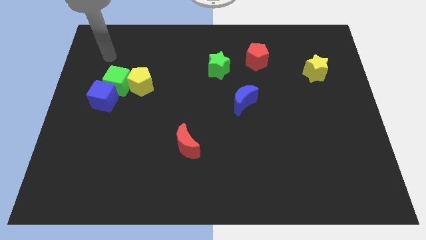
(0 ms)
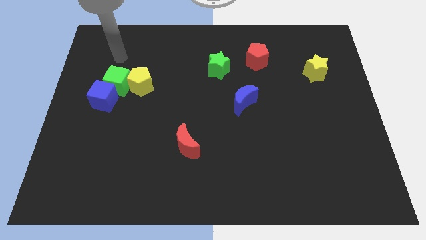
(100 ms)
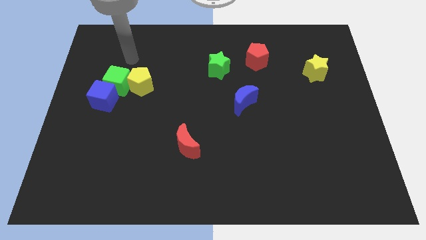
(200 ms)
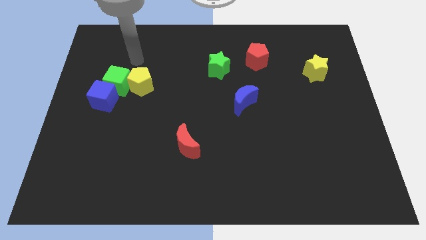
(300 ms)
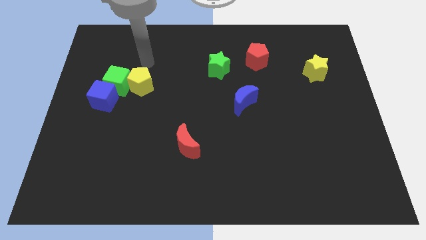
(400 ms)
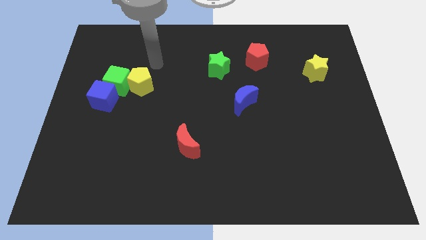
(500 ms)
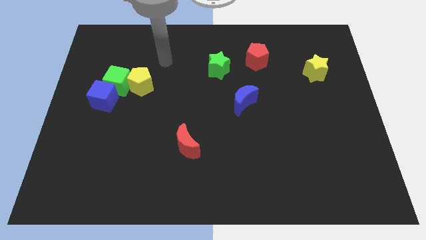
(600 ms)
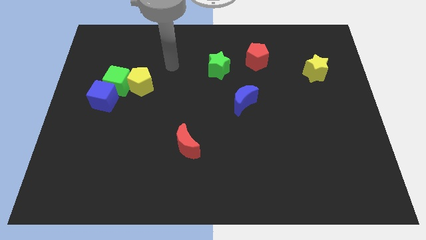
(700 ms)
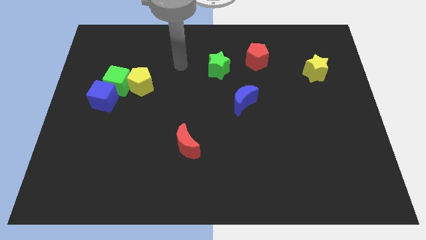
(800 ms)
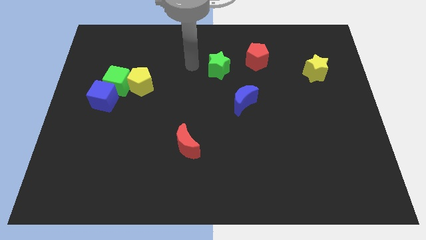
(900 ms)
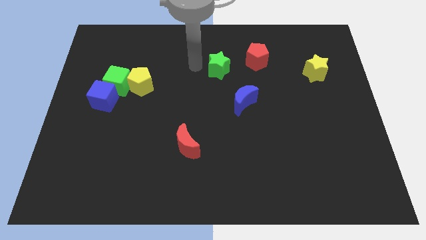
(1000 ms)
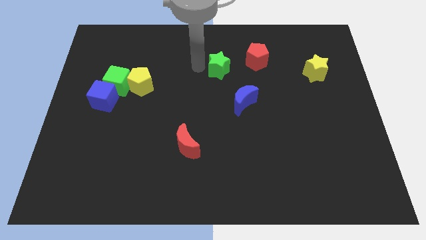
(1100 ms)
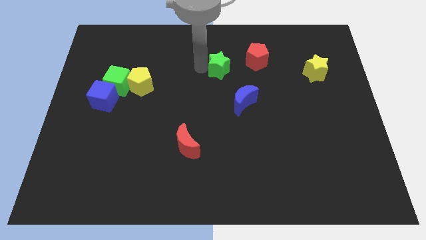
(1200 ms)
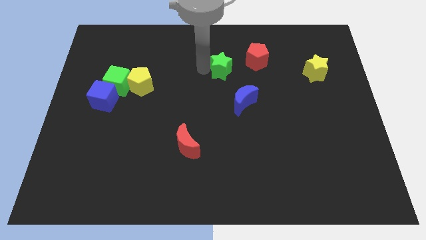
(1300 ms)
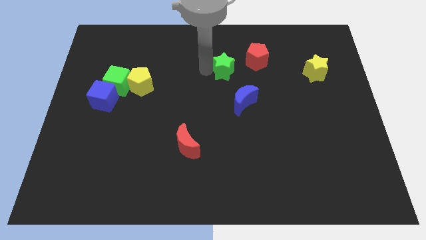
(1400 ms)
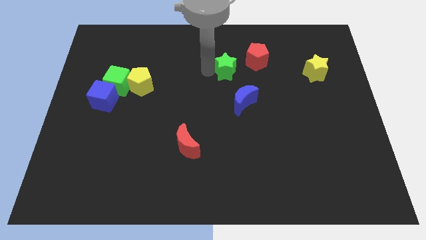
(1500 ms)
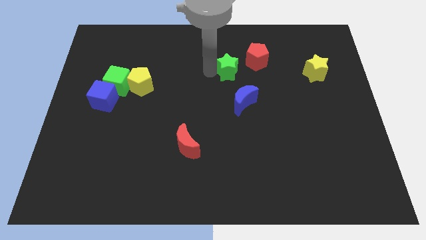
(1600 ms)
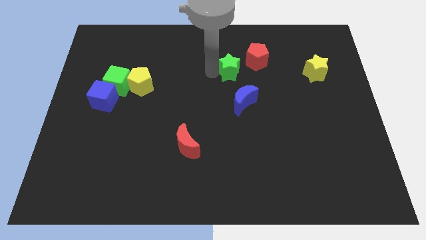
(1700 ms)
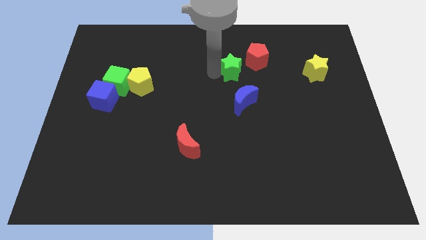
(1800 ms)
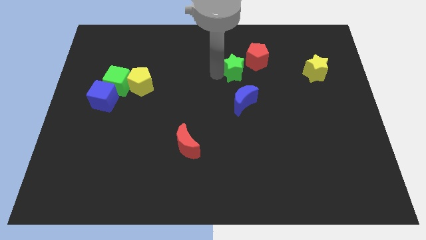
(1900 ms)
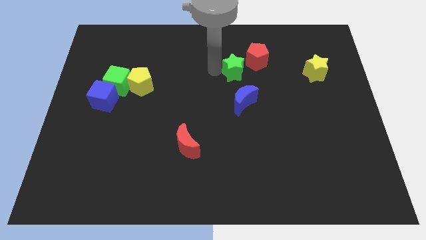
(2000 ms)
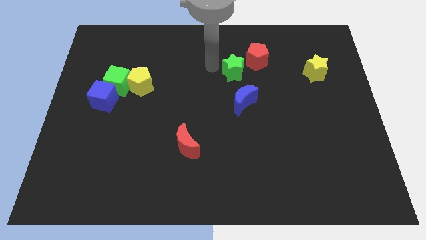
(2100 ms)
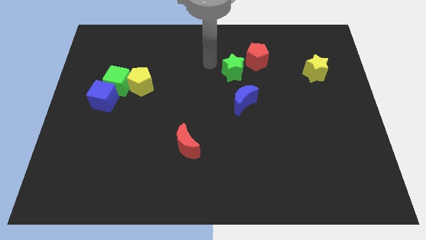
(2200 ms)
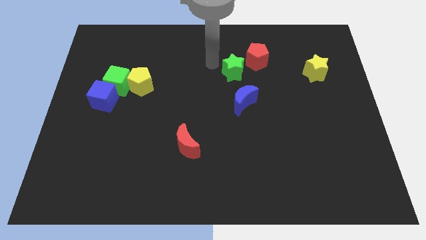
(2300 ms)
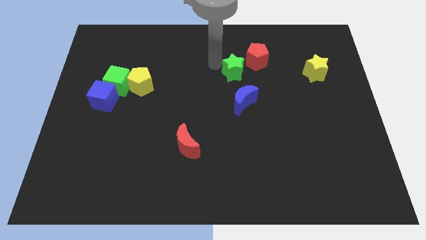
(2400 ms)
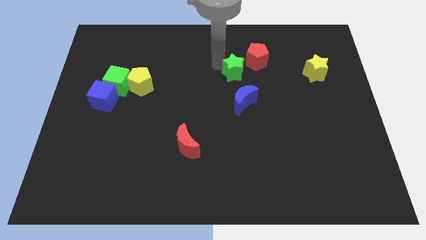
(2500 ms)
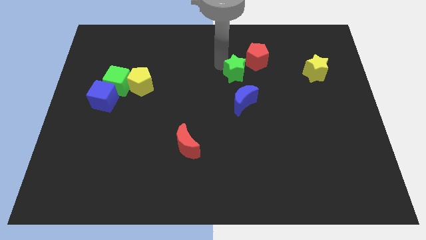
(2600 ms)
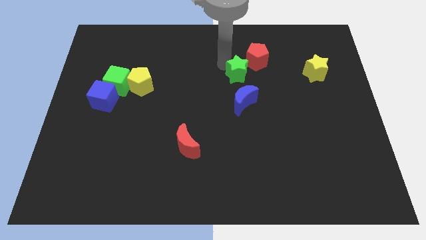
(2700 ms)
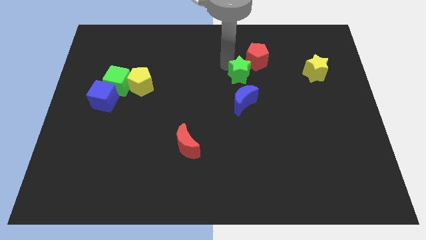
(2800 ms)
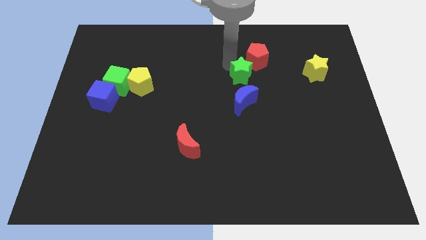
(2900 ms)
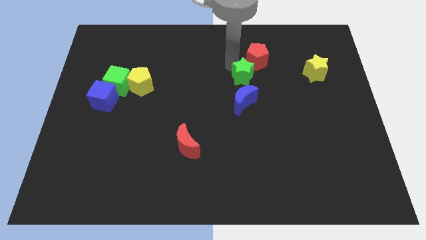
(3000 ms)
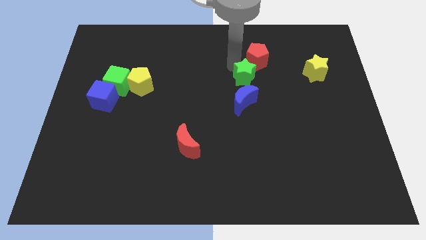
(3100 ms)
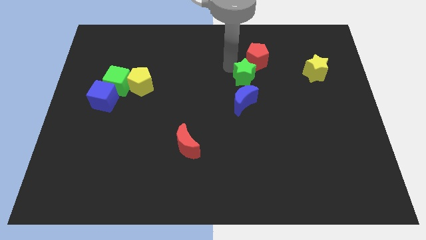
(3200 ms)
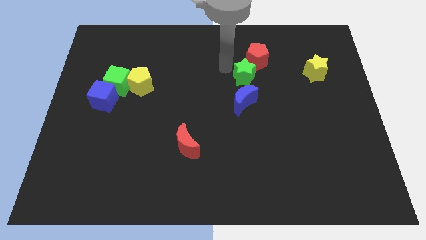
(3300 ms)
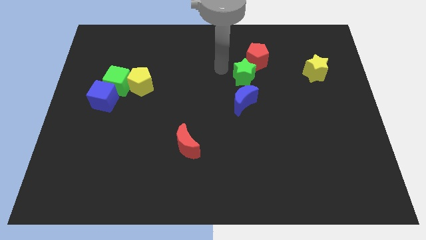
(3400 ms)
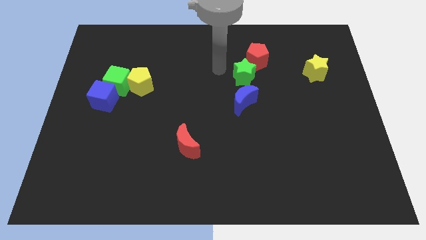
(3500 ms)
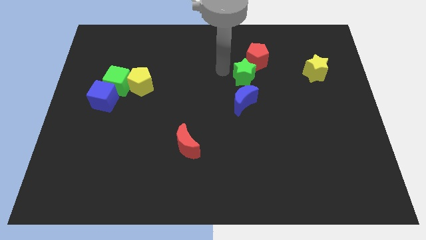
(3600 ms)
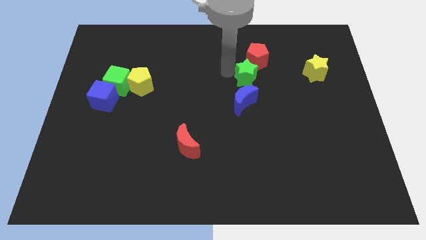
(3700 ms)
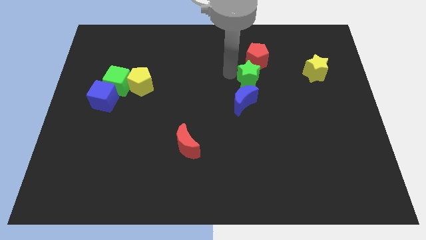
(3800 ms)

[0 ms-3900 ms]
move the green star a bit to the right

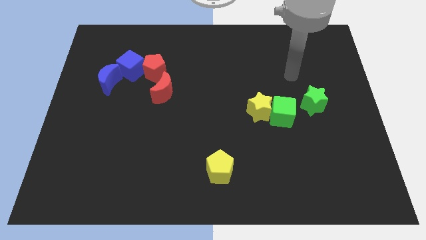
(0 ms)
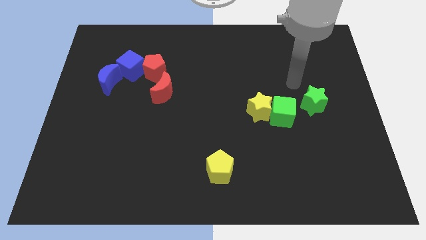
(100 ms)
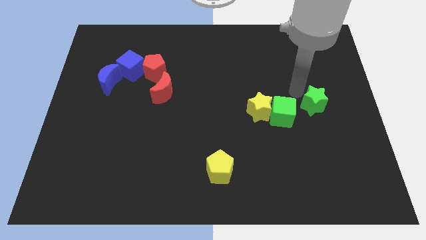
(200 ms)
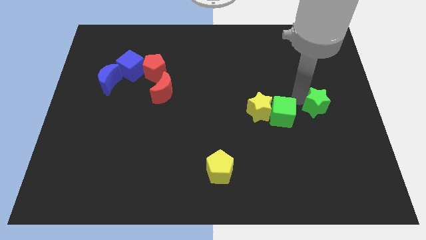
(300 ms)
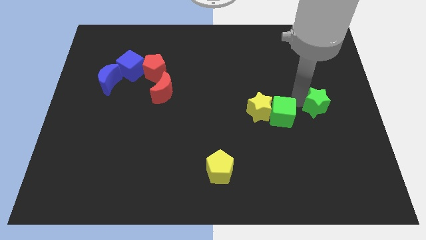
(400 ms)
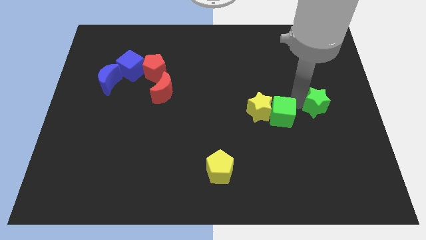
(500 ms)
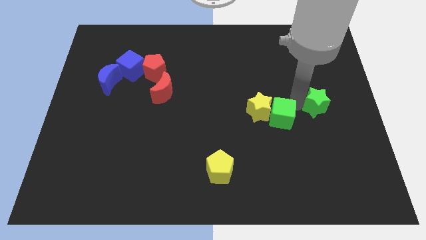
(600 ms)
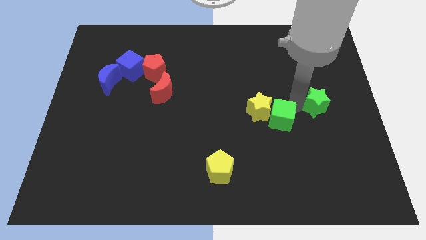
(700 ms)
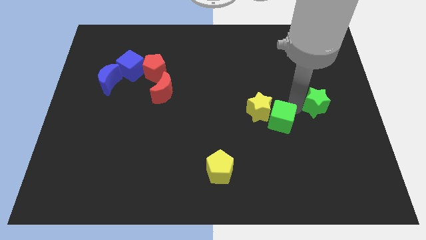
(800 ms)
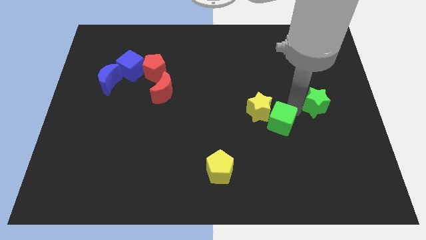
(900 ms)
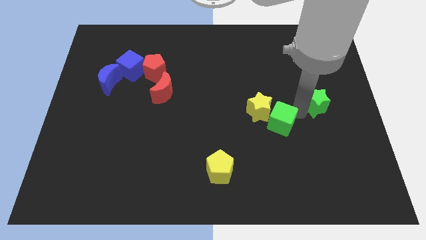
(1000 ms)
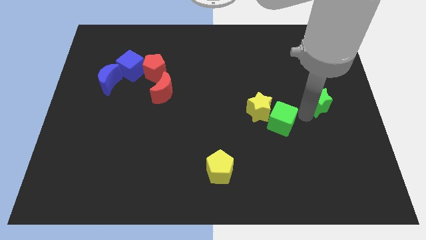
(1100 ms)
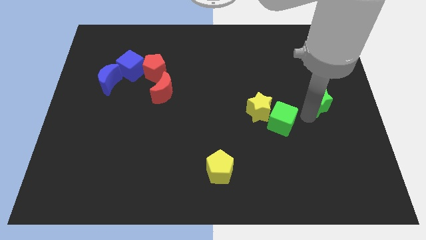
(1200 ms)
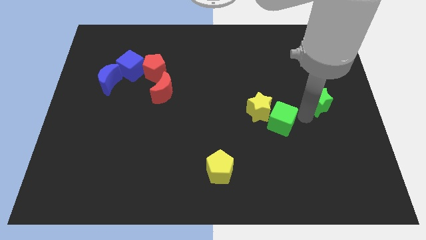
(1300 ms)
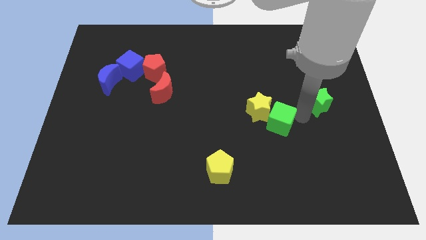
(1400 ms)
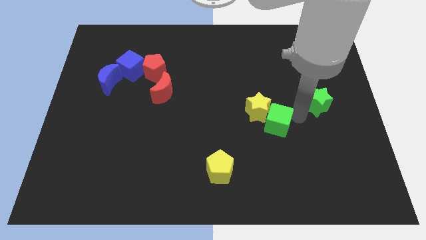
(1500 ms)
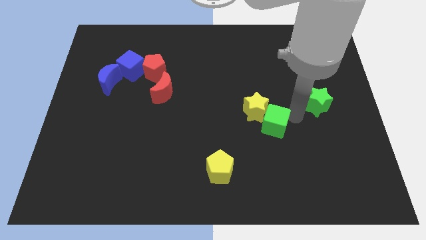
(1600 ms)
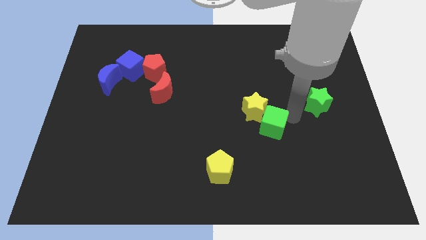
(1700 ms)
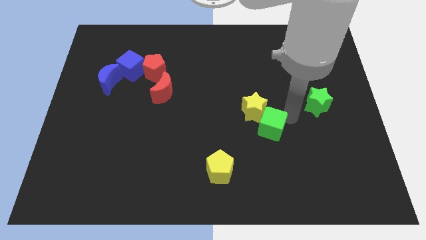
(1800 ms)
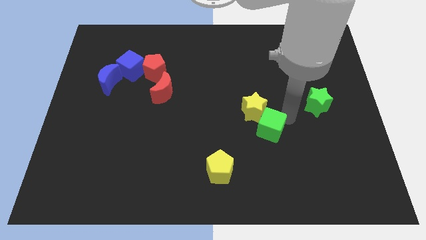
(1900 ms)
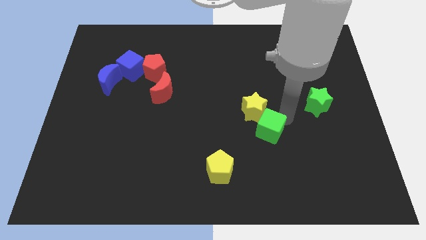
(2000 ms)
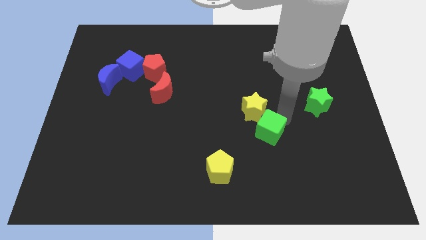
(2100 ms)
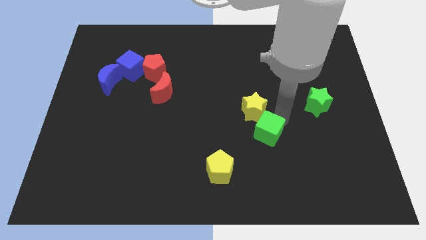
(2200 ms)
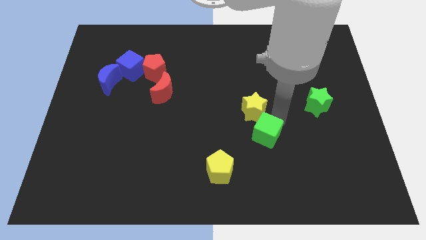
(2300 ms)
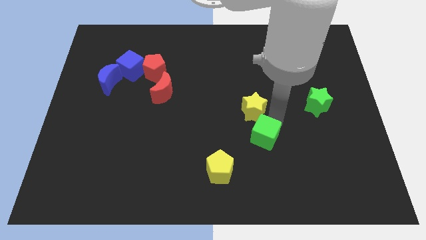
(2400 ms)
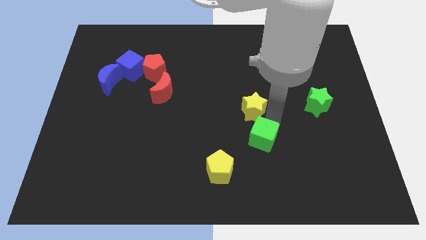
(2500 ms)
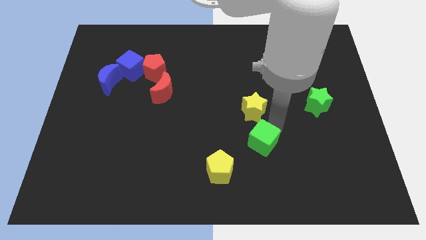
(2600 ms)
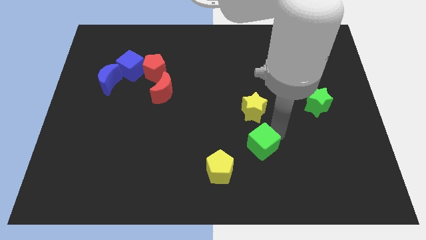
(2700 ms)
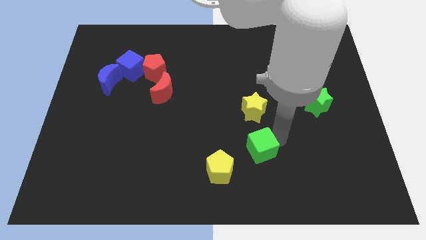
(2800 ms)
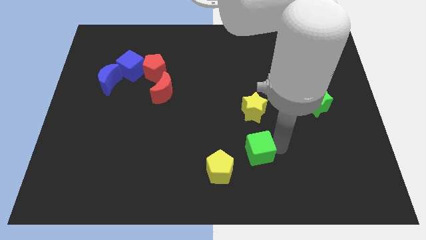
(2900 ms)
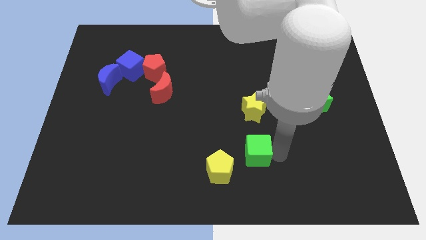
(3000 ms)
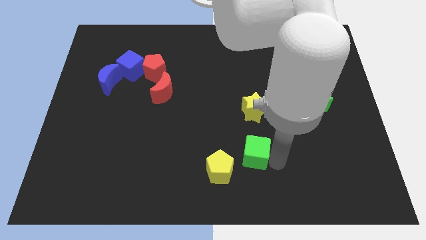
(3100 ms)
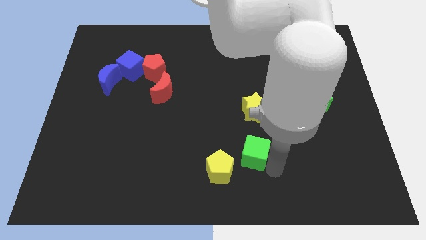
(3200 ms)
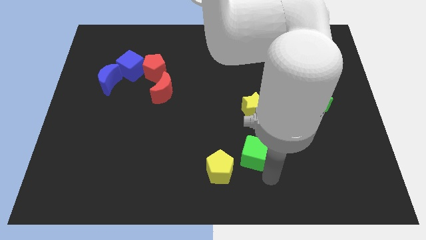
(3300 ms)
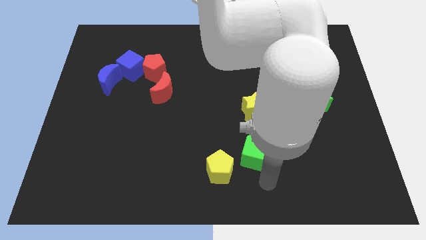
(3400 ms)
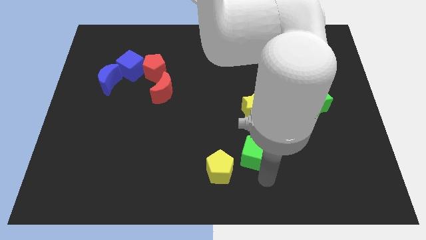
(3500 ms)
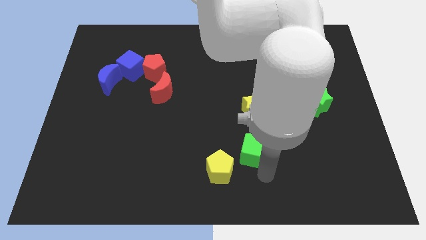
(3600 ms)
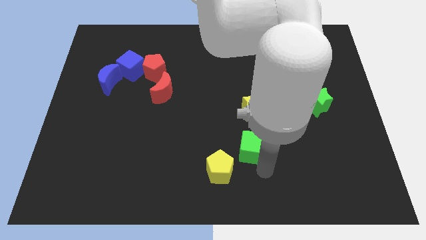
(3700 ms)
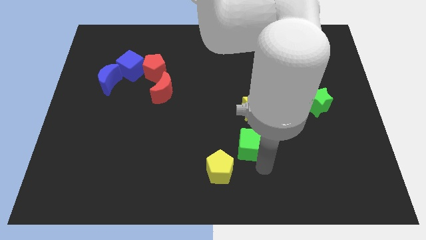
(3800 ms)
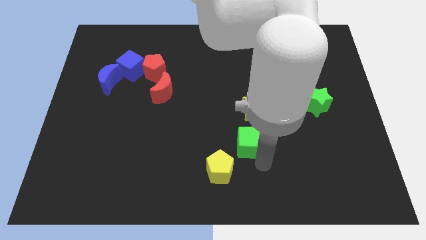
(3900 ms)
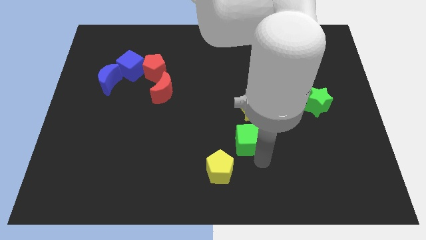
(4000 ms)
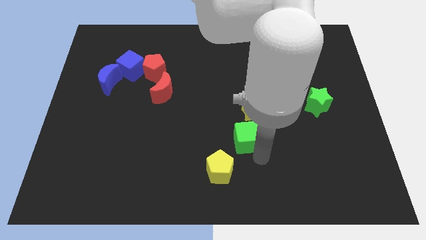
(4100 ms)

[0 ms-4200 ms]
slide the green cube to the left a bit
